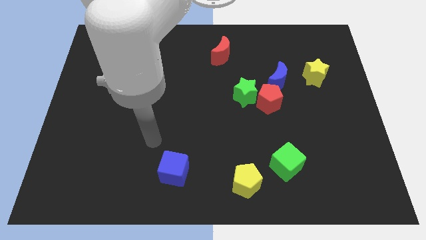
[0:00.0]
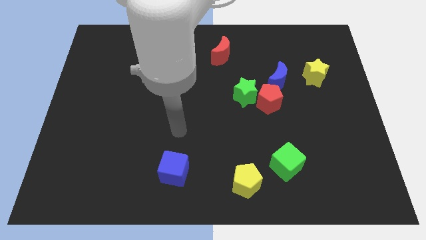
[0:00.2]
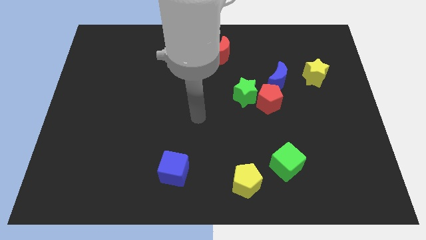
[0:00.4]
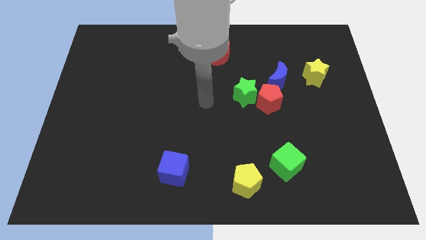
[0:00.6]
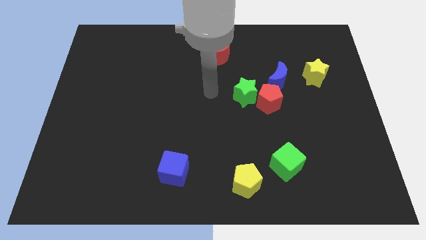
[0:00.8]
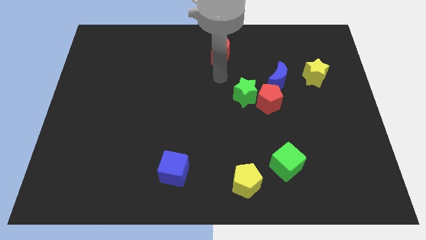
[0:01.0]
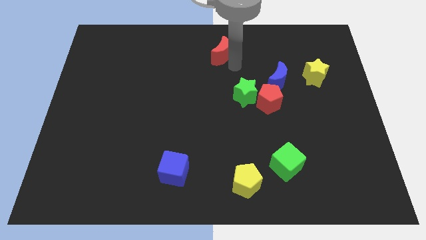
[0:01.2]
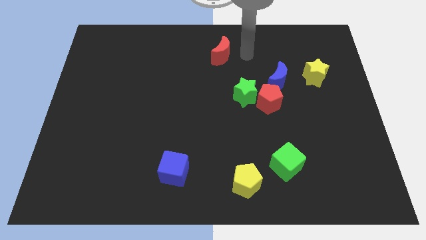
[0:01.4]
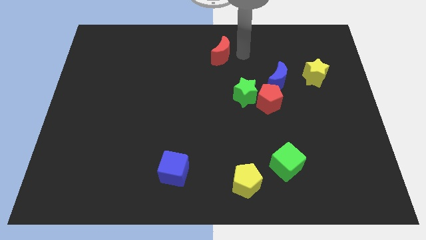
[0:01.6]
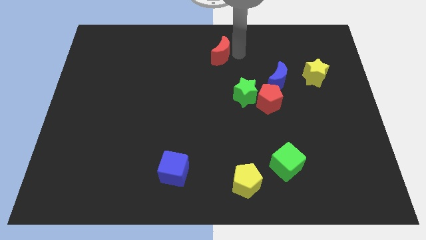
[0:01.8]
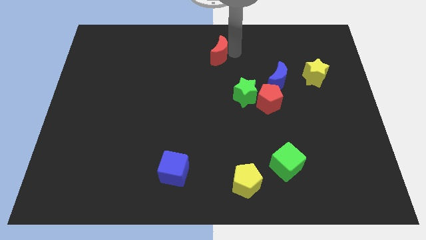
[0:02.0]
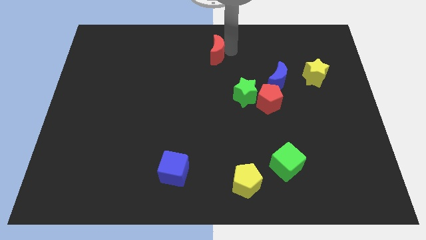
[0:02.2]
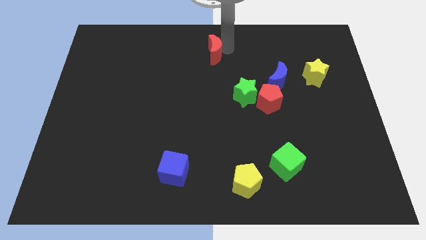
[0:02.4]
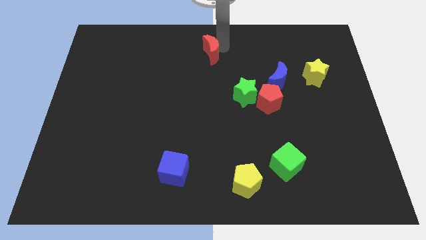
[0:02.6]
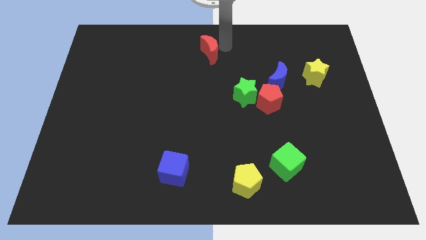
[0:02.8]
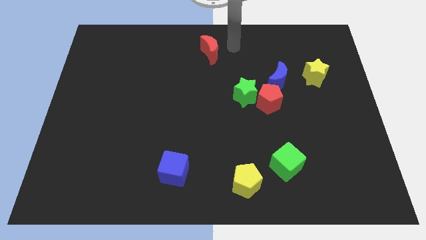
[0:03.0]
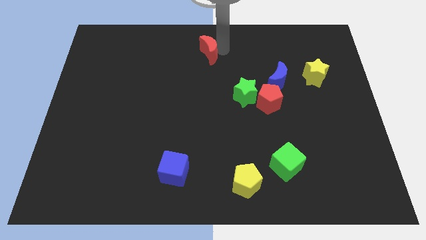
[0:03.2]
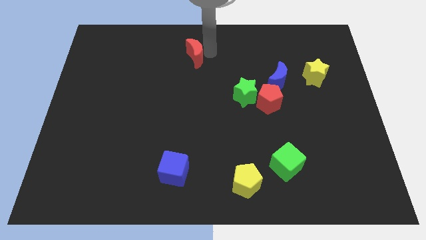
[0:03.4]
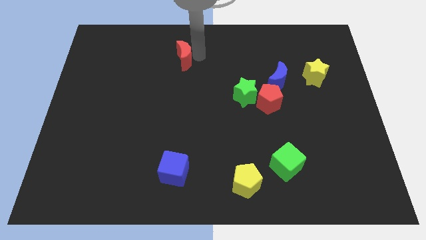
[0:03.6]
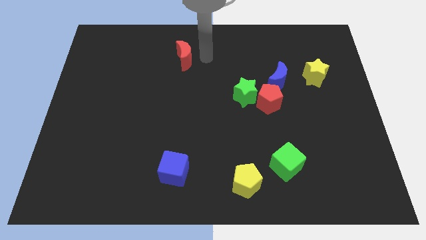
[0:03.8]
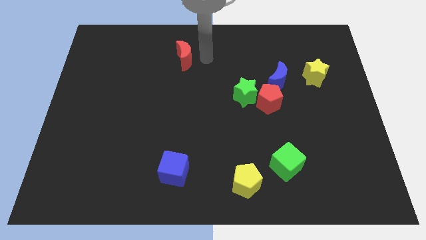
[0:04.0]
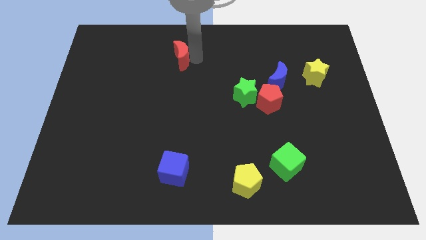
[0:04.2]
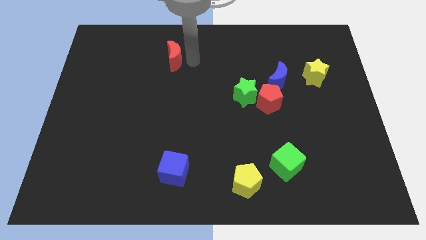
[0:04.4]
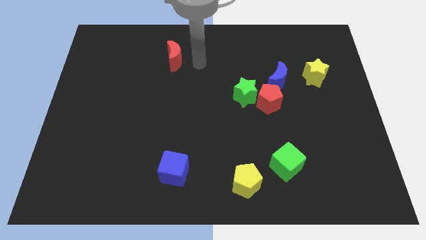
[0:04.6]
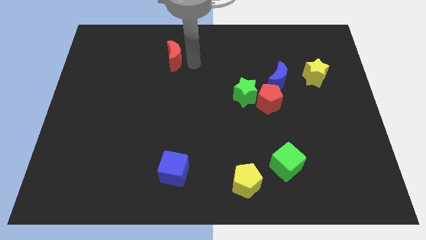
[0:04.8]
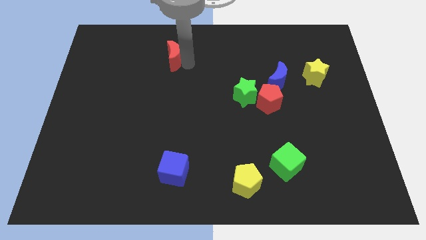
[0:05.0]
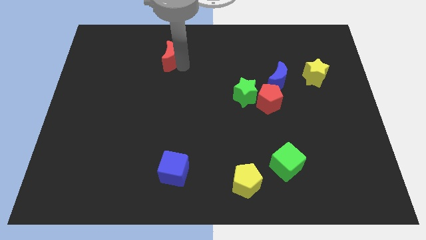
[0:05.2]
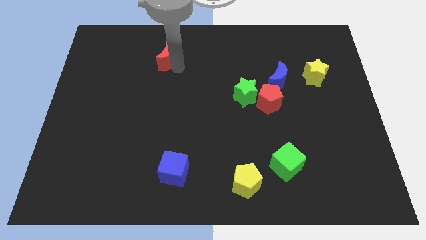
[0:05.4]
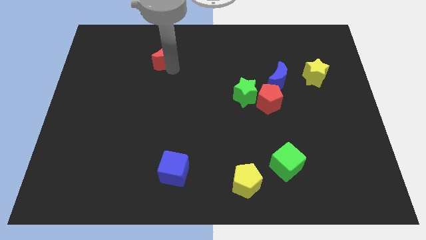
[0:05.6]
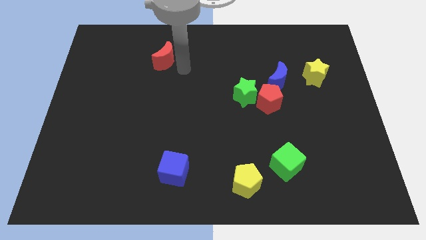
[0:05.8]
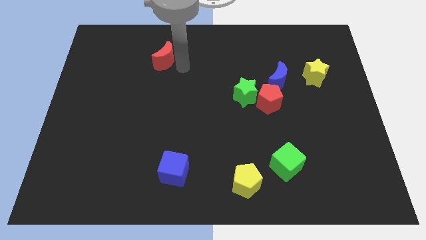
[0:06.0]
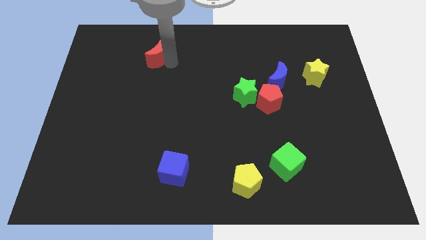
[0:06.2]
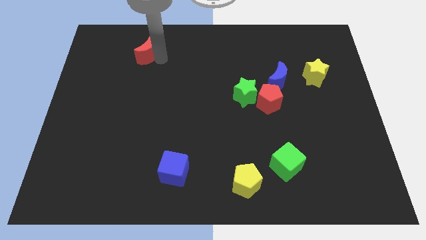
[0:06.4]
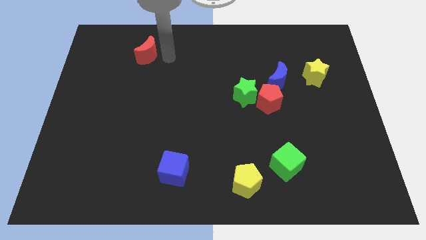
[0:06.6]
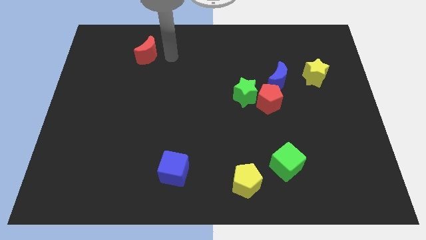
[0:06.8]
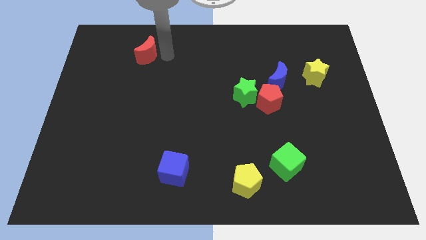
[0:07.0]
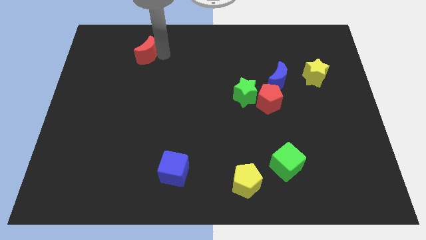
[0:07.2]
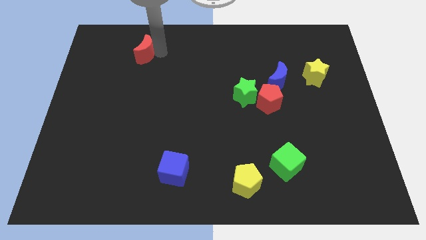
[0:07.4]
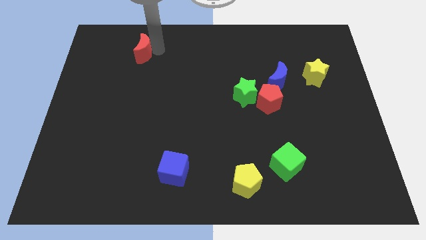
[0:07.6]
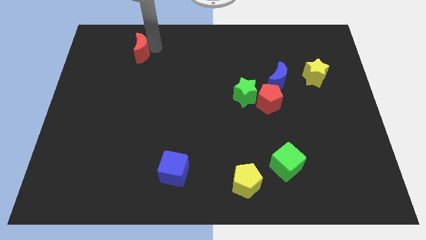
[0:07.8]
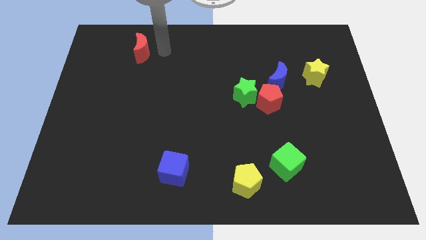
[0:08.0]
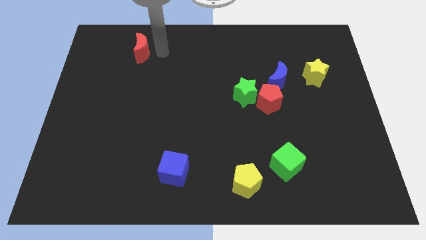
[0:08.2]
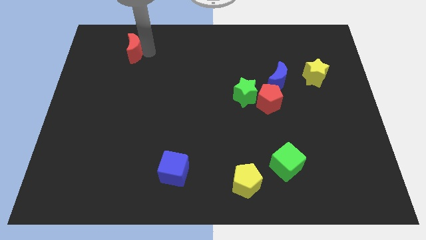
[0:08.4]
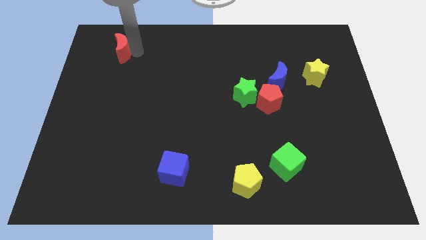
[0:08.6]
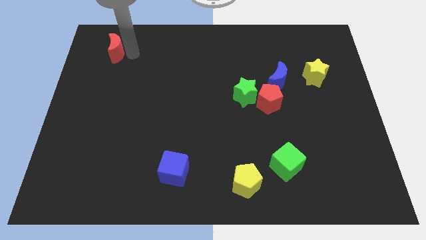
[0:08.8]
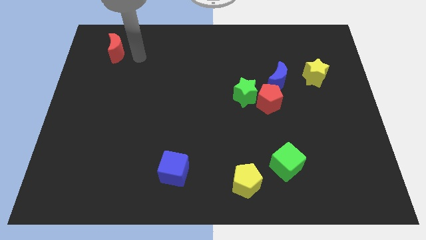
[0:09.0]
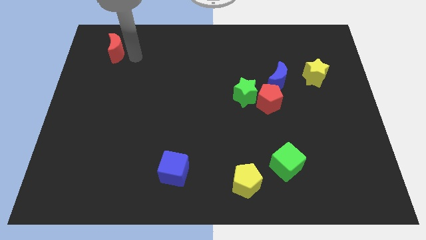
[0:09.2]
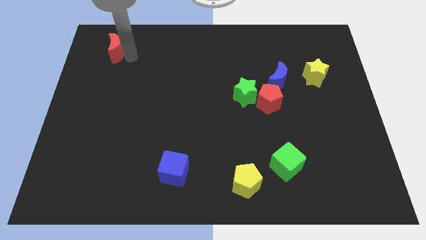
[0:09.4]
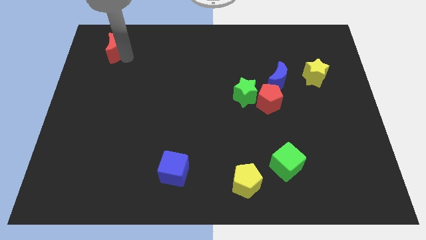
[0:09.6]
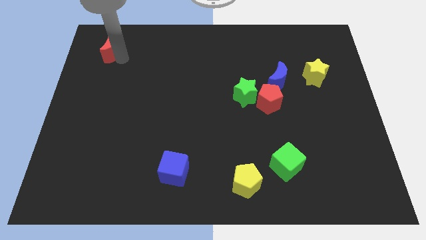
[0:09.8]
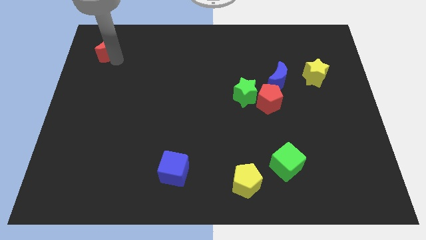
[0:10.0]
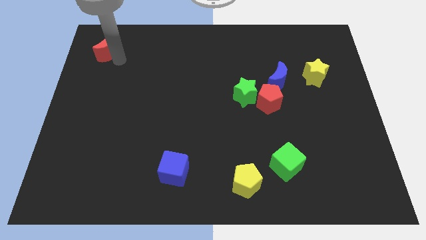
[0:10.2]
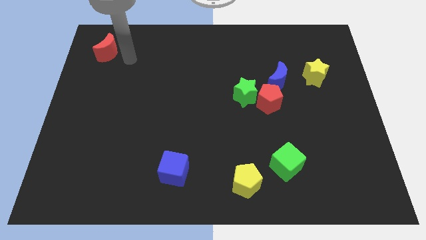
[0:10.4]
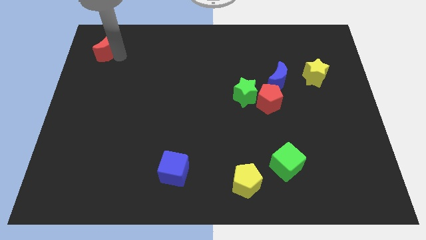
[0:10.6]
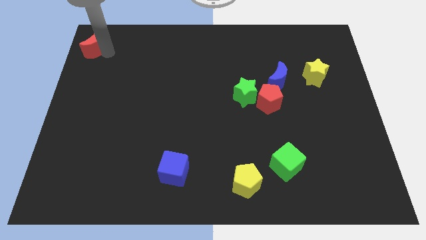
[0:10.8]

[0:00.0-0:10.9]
move the red moon to the top left

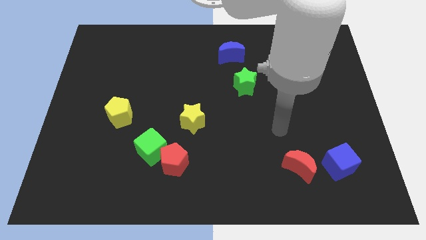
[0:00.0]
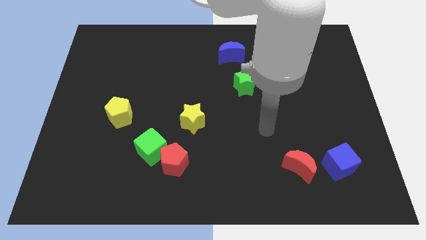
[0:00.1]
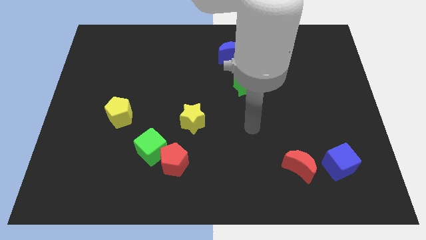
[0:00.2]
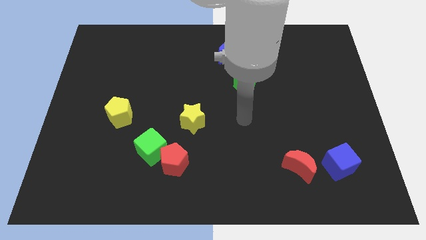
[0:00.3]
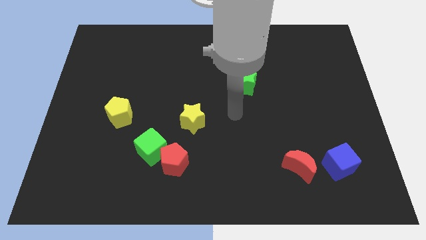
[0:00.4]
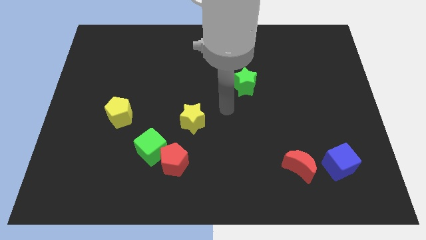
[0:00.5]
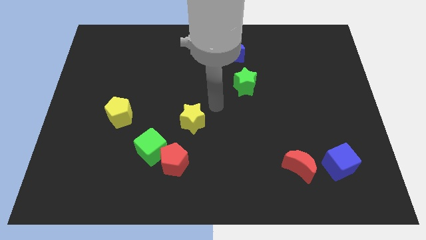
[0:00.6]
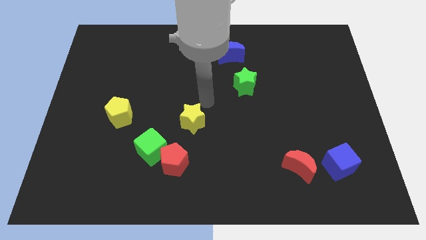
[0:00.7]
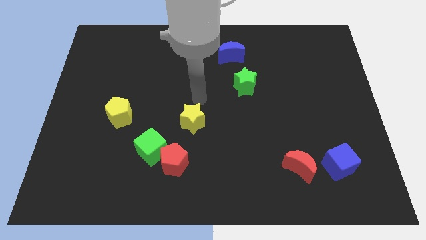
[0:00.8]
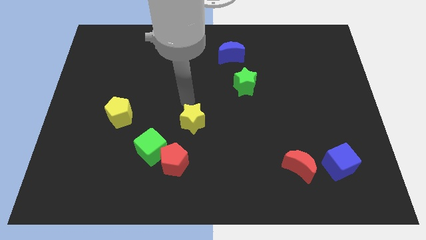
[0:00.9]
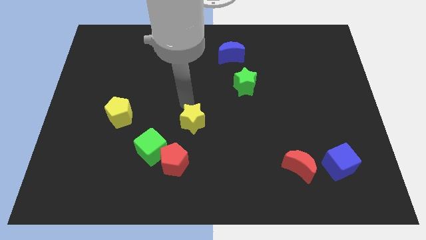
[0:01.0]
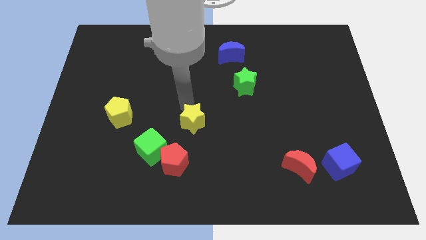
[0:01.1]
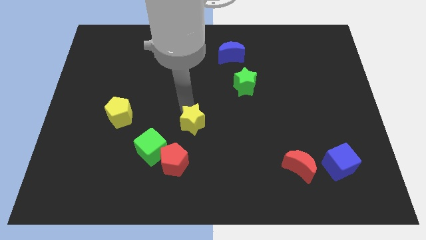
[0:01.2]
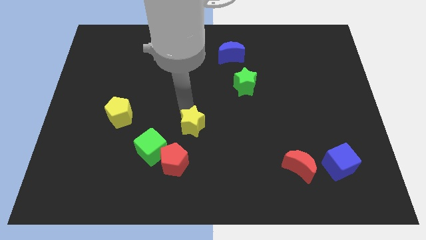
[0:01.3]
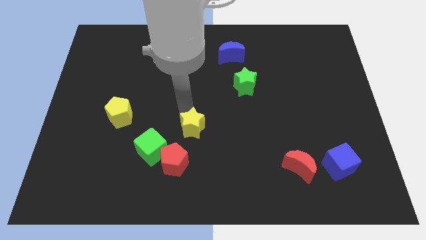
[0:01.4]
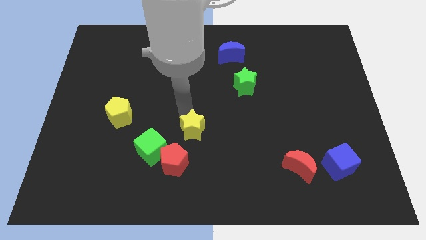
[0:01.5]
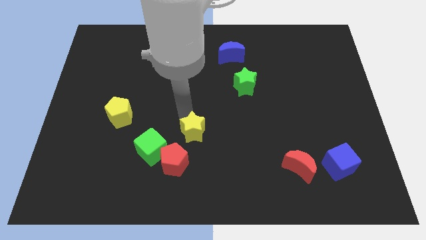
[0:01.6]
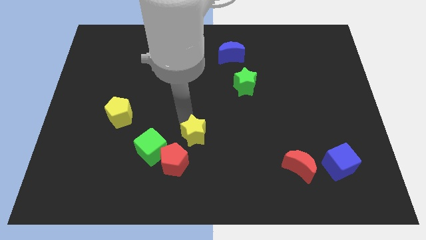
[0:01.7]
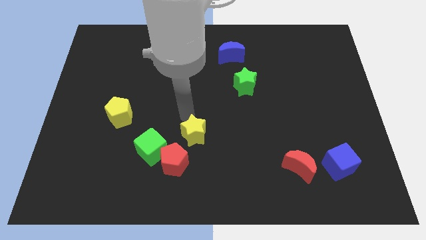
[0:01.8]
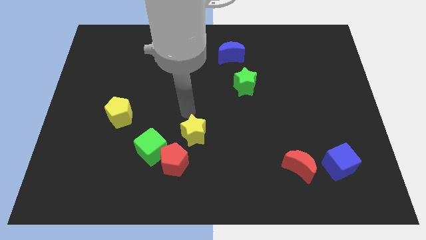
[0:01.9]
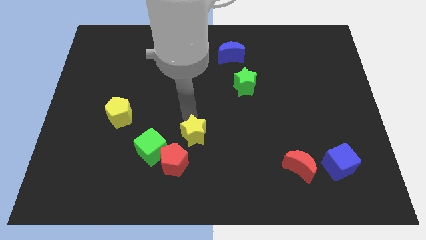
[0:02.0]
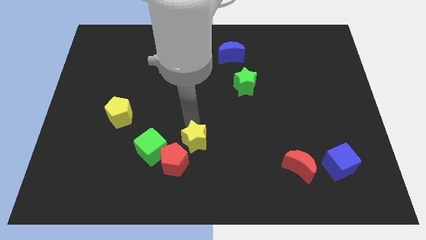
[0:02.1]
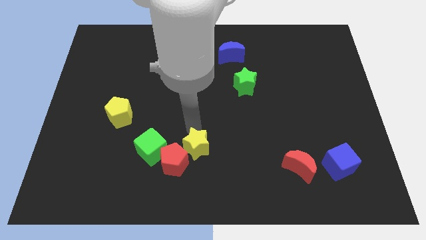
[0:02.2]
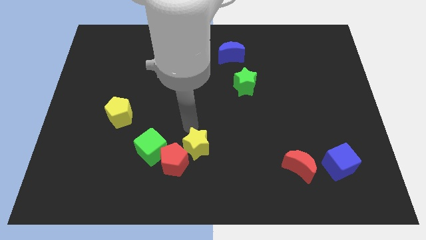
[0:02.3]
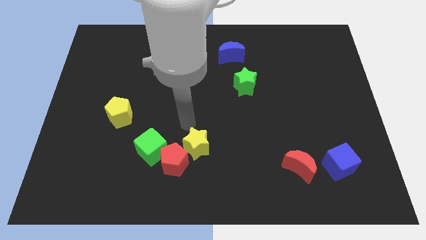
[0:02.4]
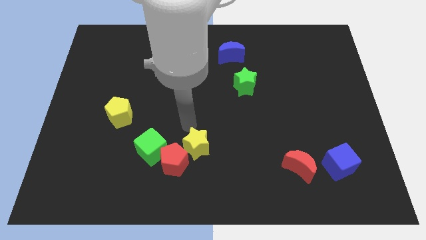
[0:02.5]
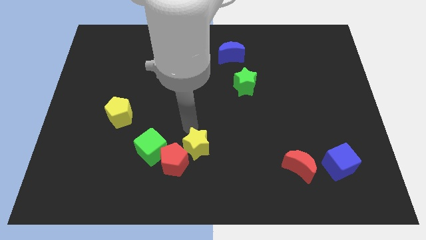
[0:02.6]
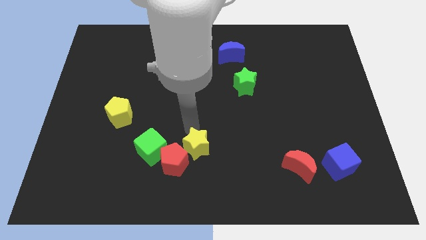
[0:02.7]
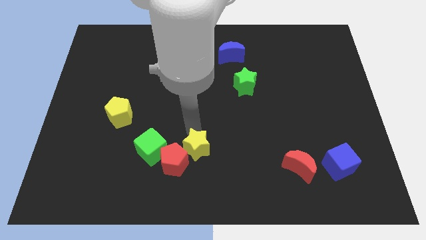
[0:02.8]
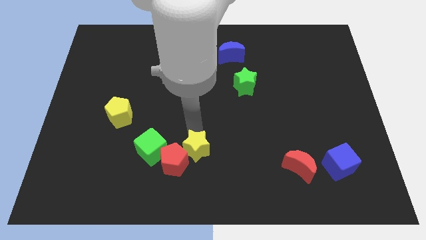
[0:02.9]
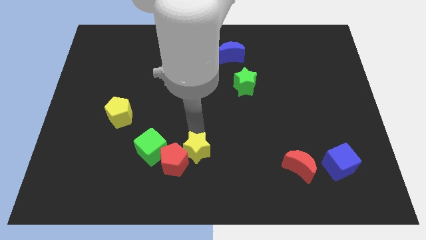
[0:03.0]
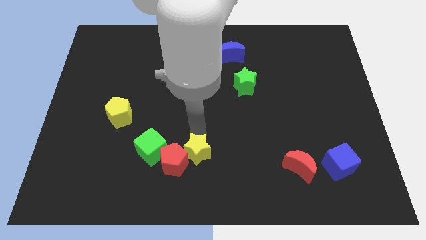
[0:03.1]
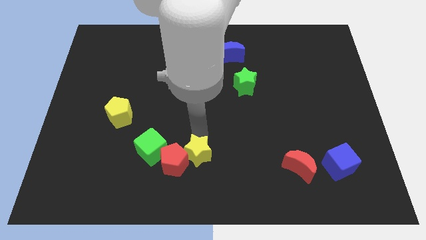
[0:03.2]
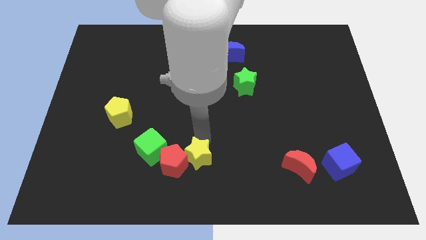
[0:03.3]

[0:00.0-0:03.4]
slide the yellow star to the bottom
